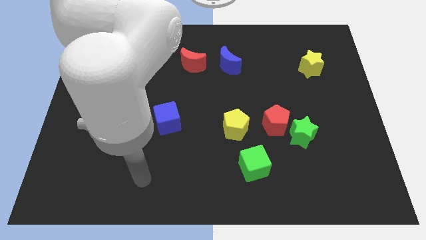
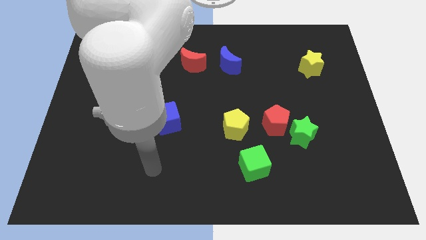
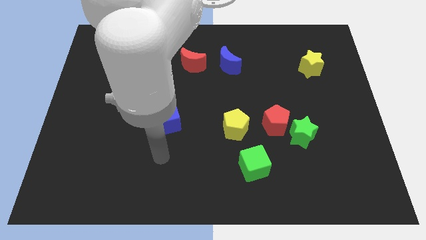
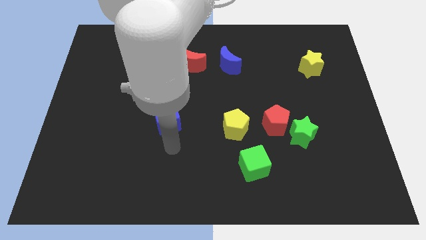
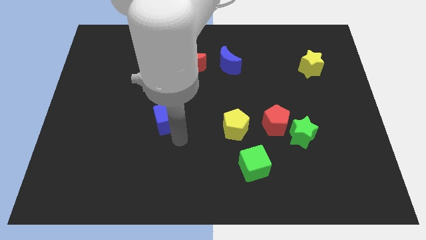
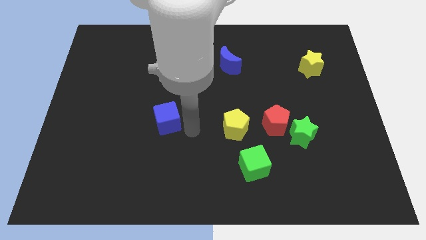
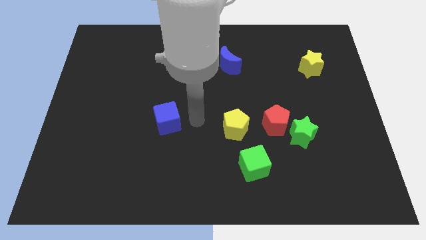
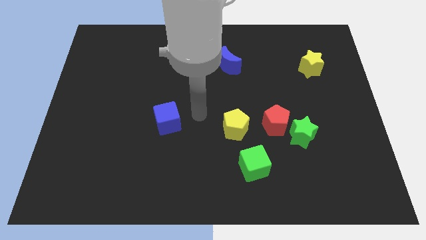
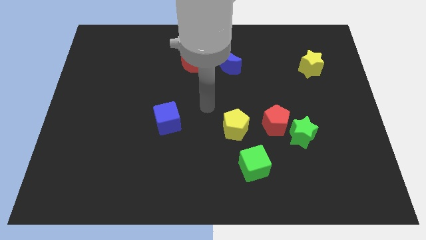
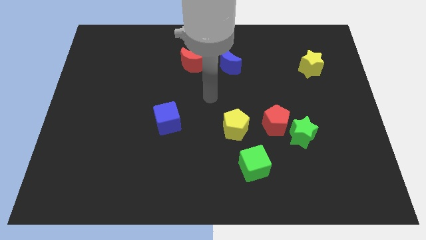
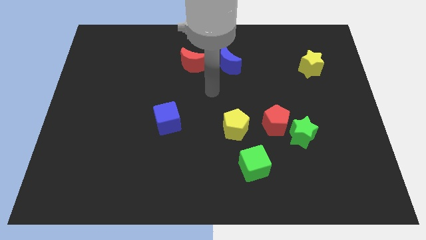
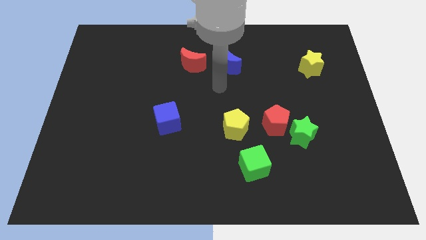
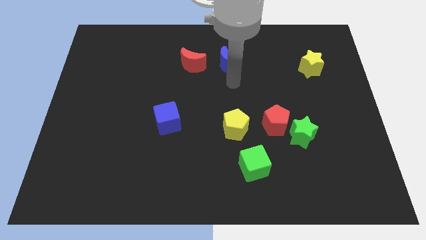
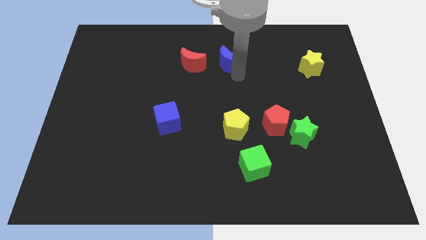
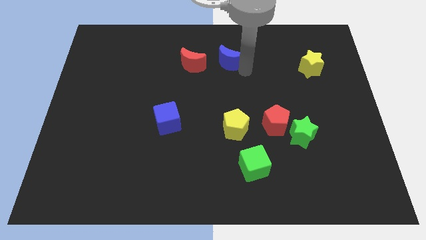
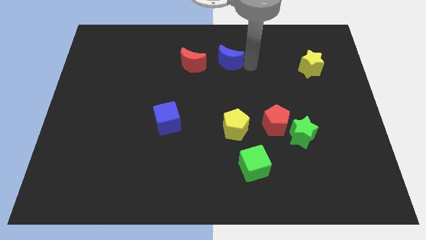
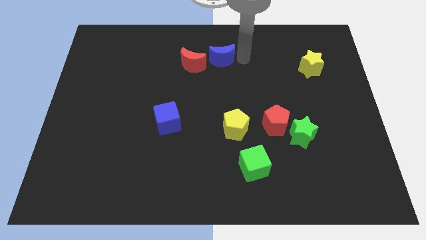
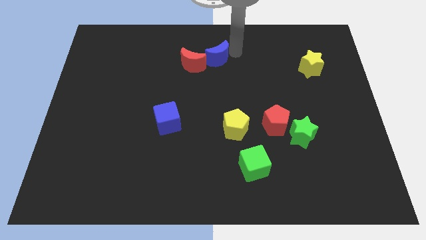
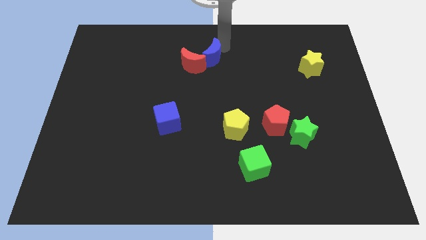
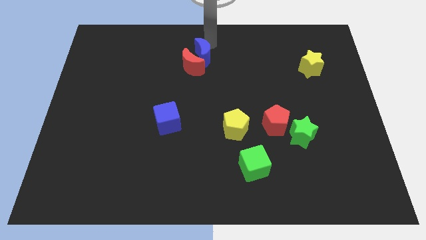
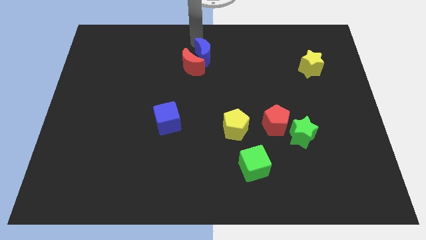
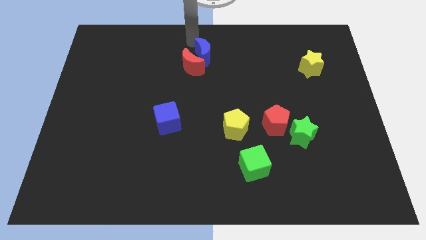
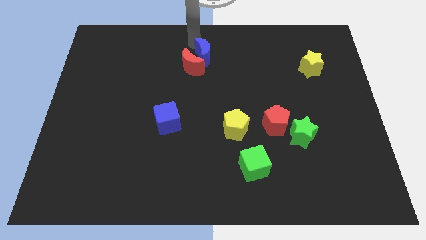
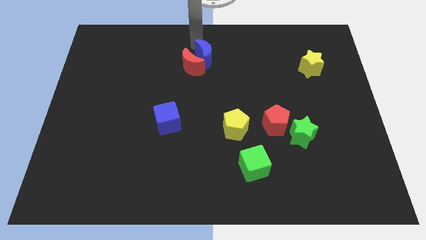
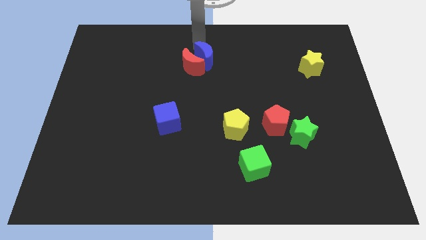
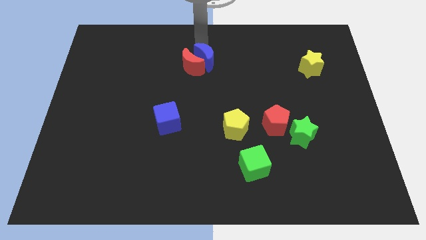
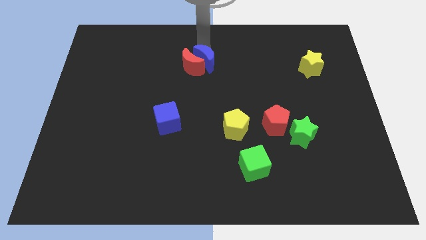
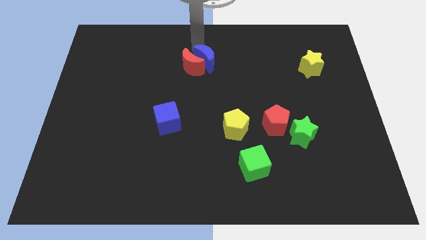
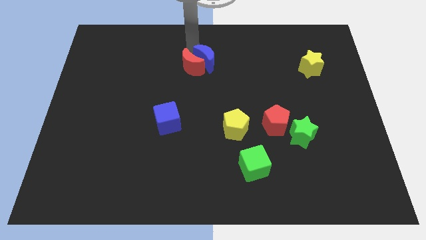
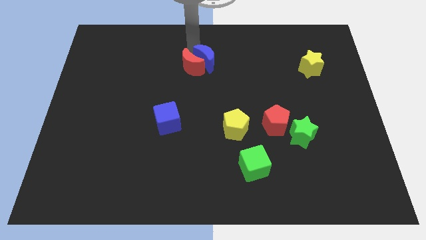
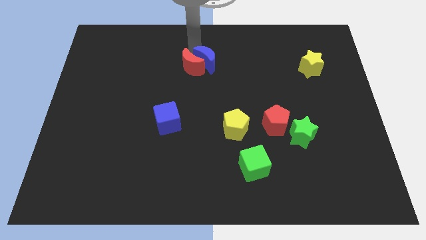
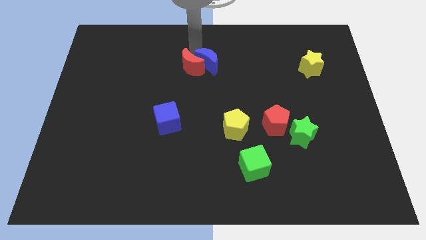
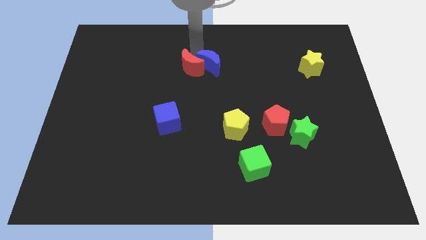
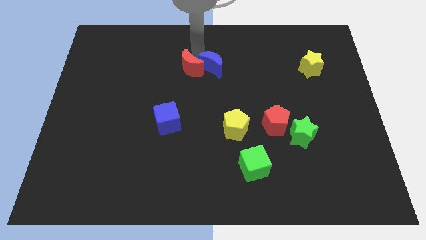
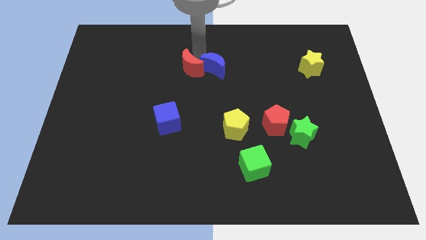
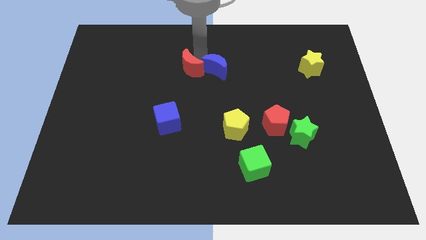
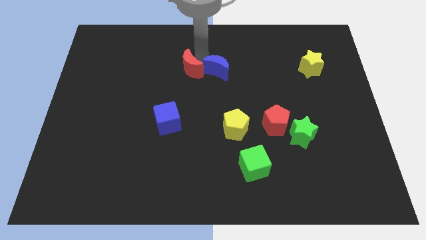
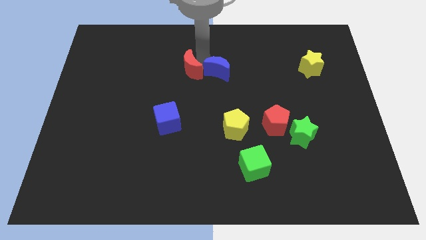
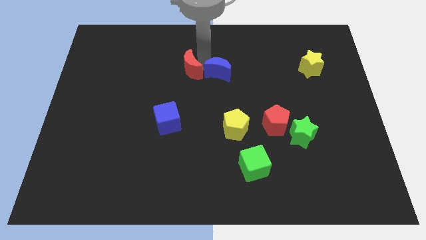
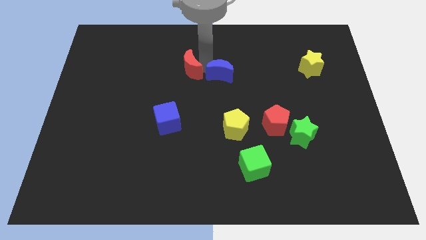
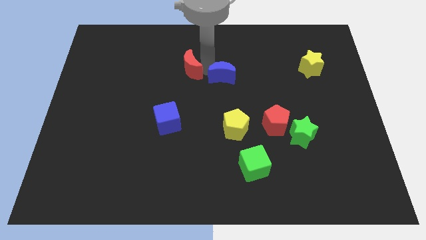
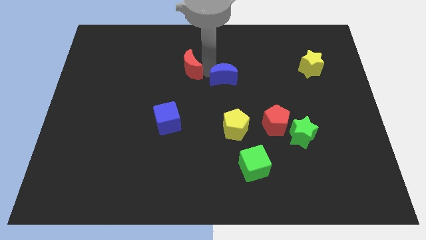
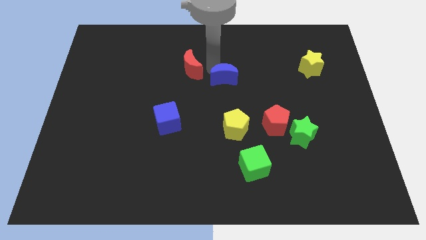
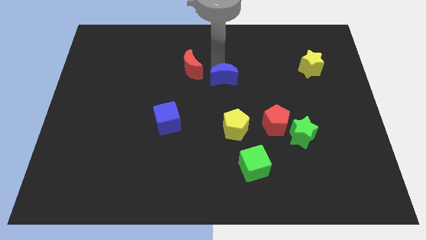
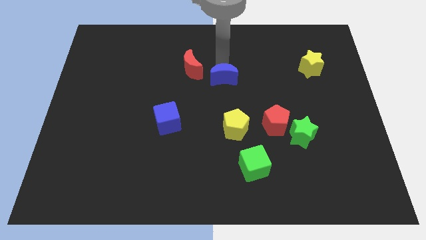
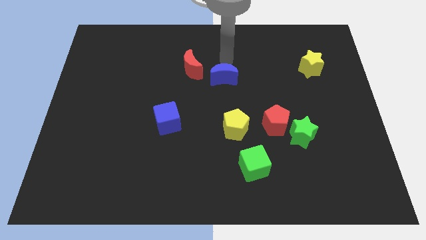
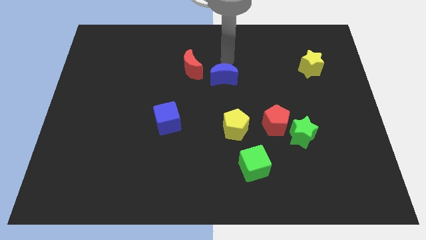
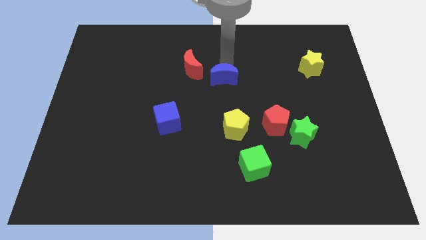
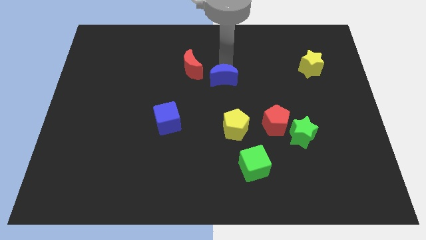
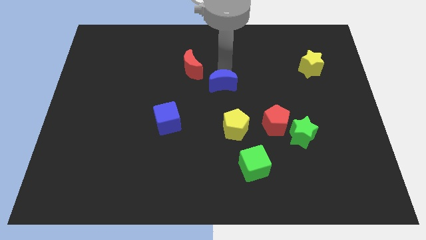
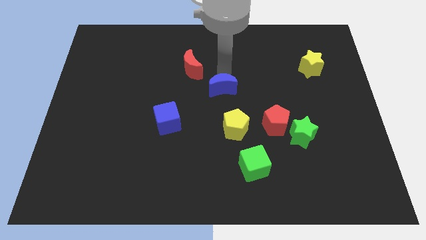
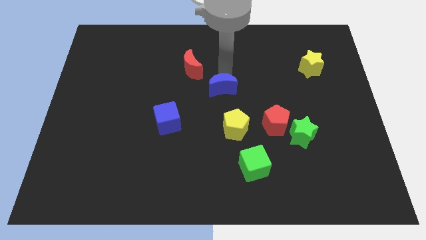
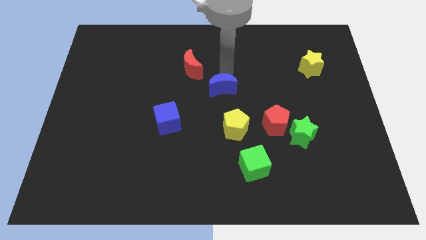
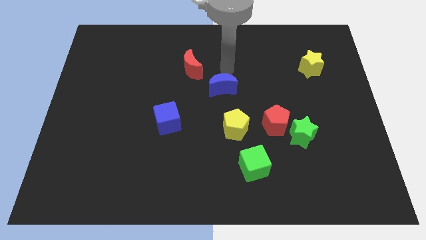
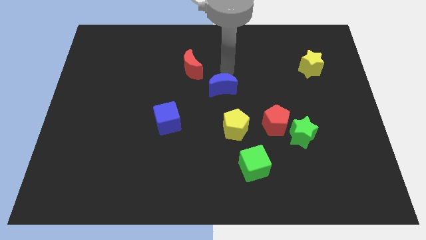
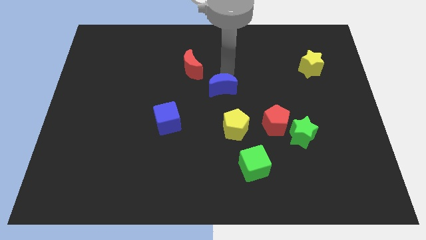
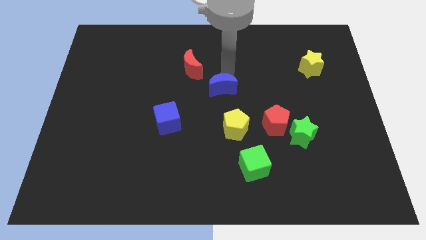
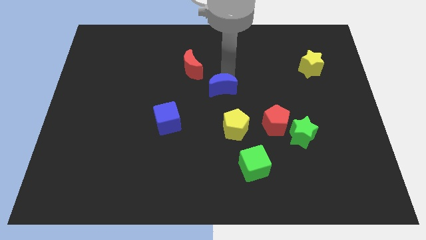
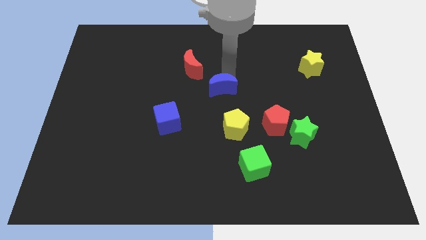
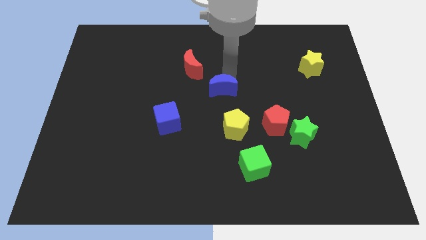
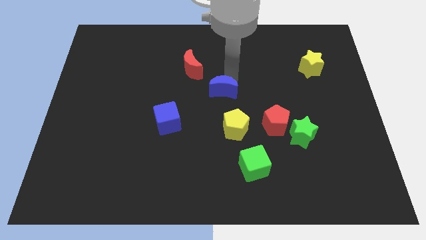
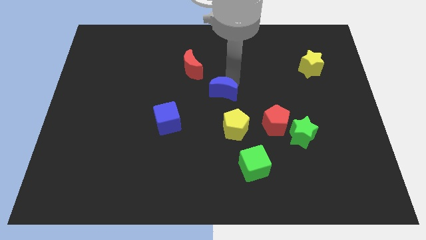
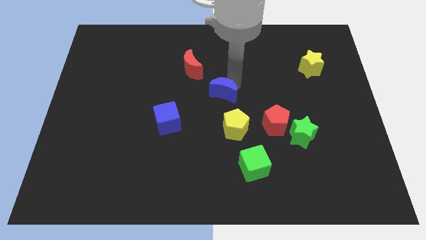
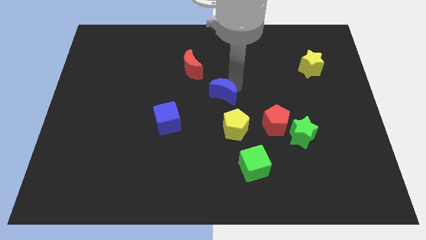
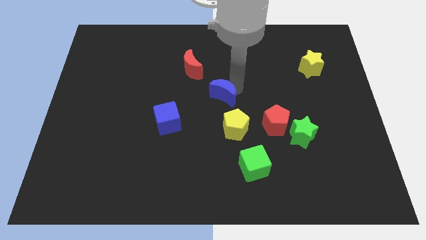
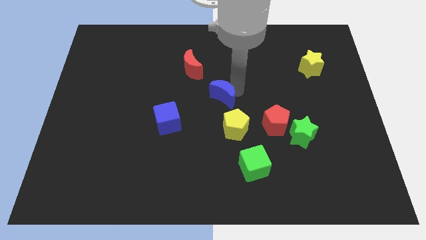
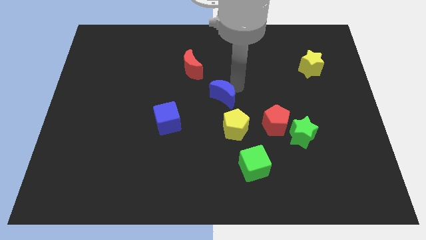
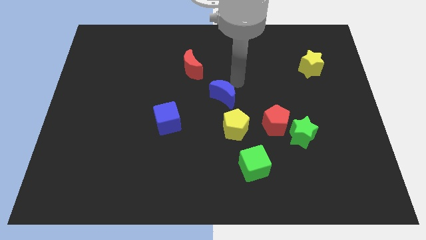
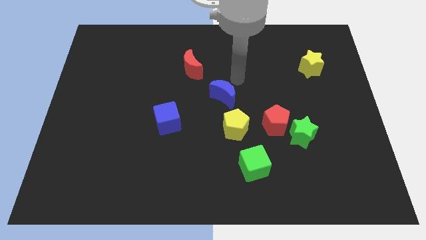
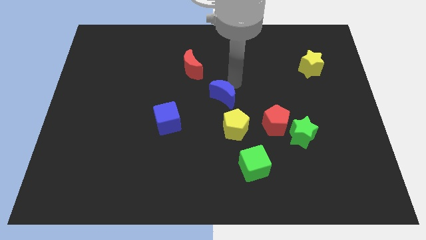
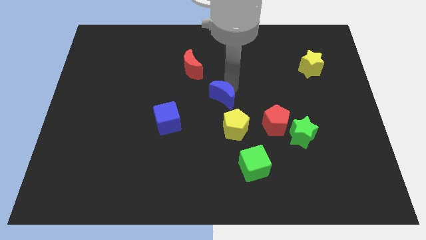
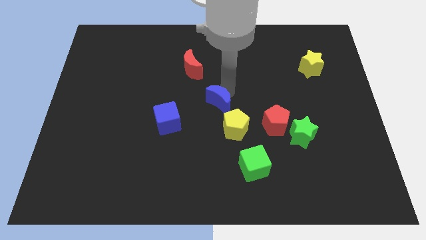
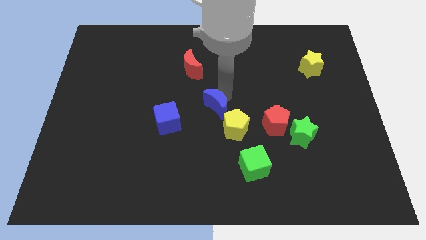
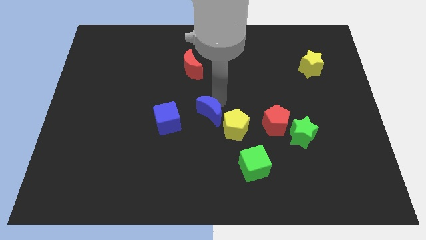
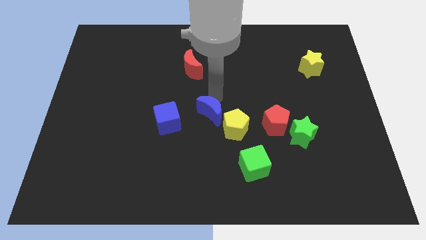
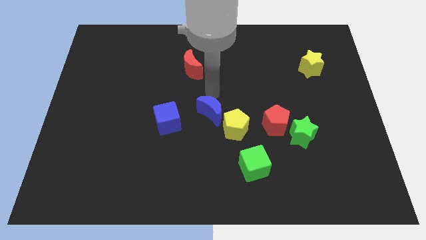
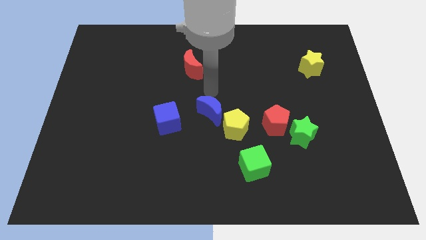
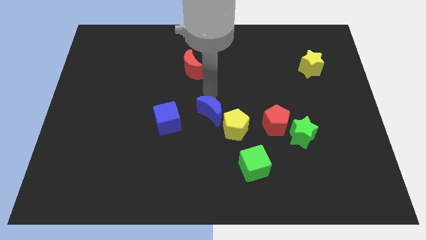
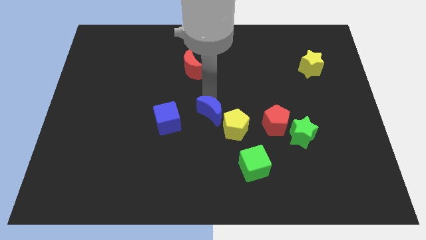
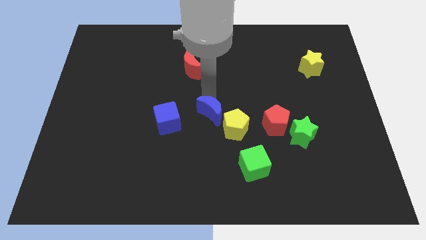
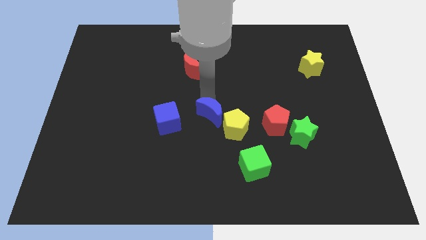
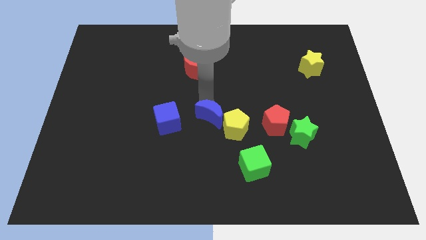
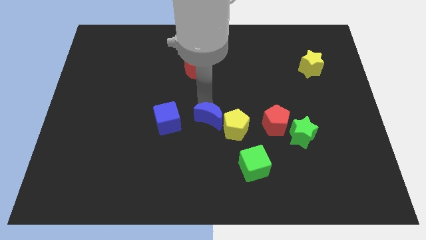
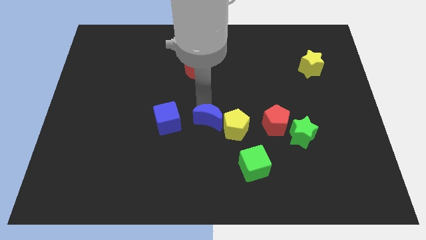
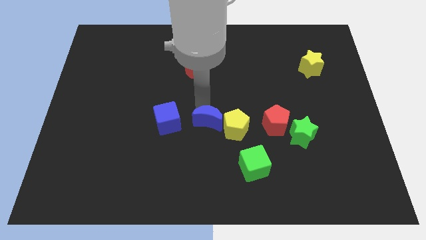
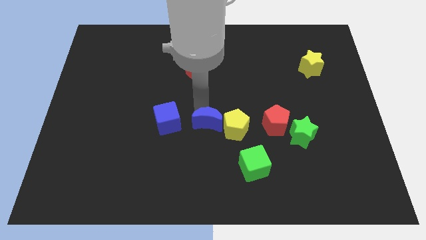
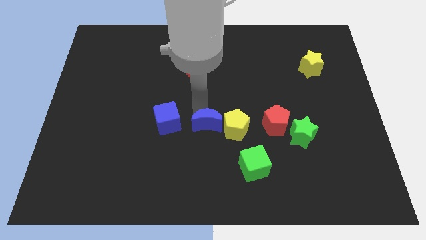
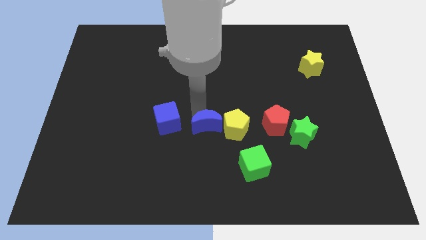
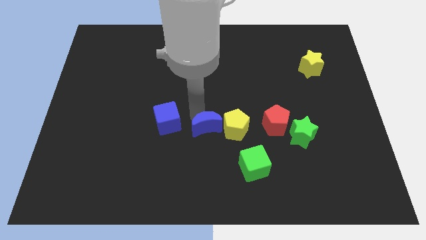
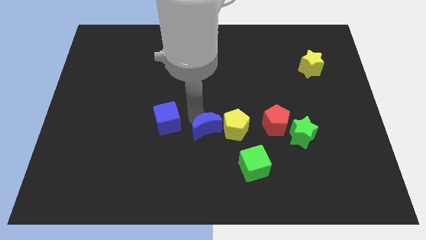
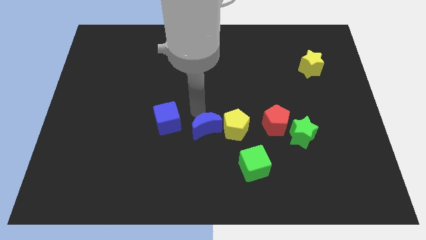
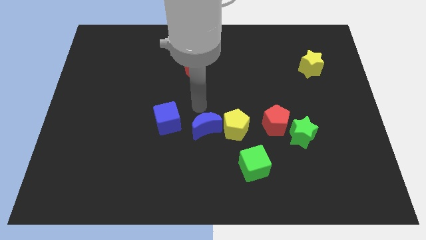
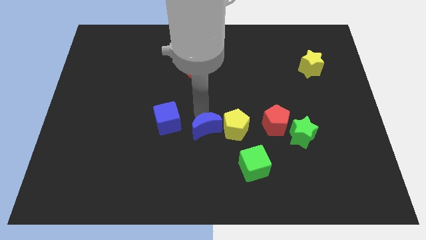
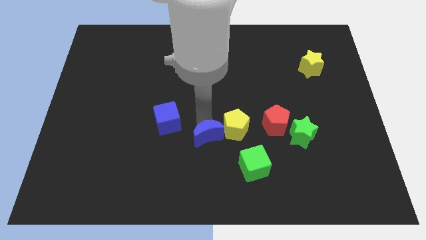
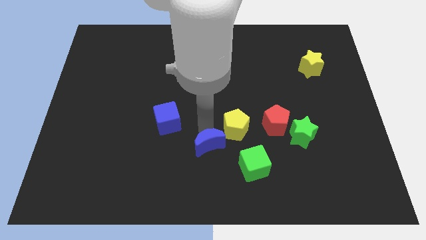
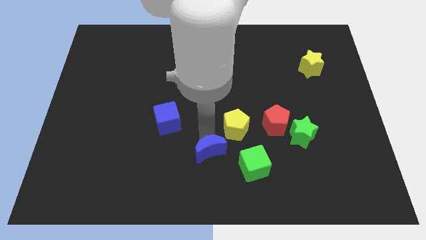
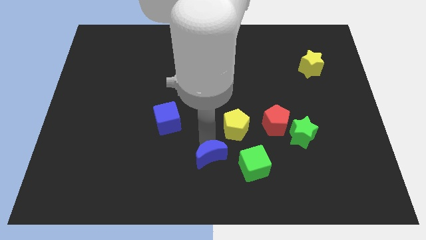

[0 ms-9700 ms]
slide the blue moon to the bottom
